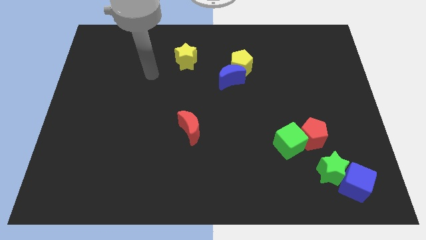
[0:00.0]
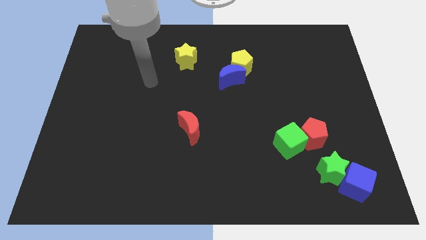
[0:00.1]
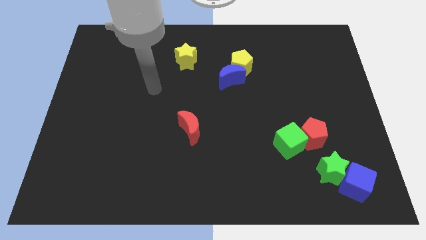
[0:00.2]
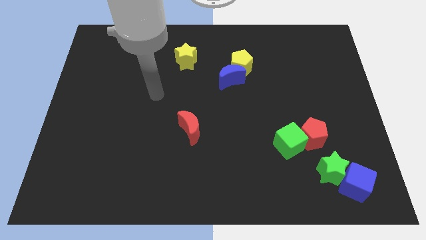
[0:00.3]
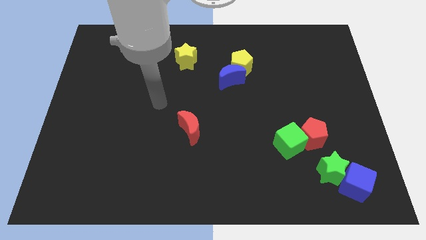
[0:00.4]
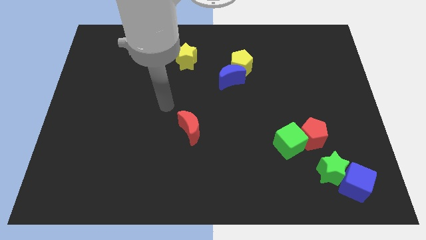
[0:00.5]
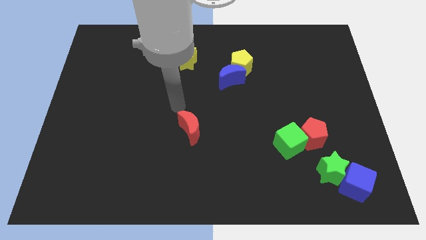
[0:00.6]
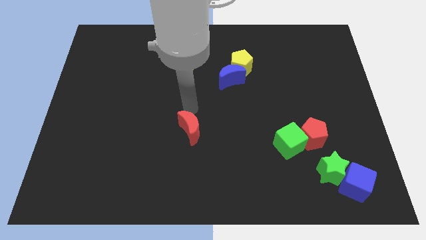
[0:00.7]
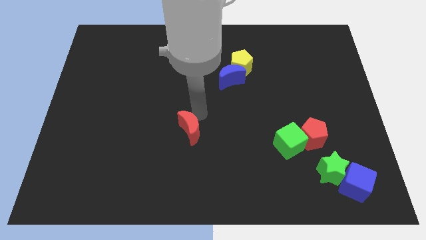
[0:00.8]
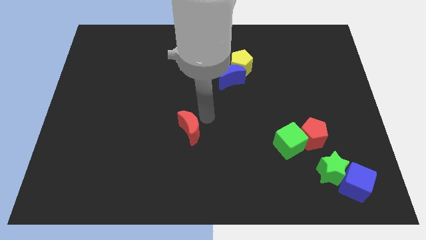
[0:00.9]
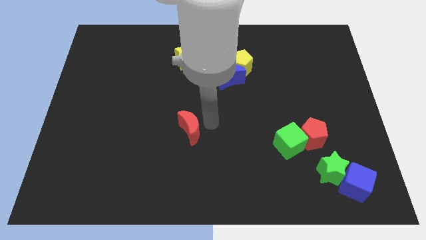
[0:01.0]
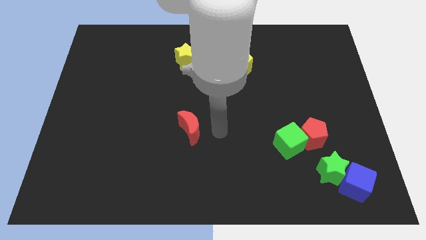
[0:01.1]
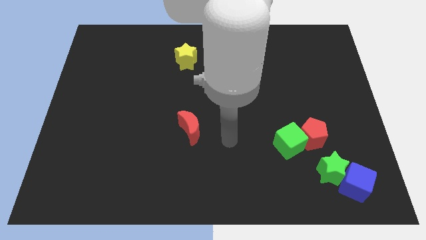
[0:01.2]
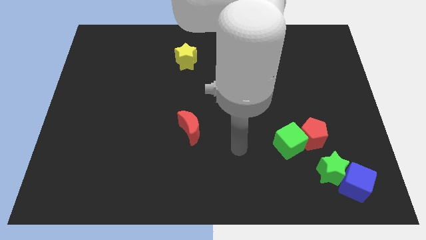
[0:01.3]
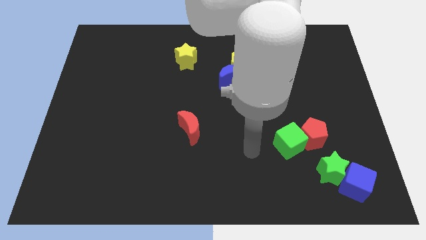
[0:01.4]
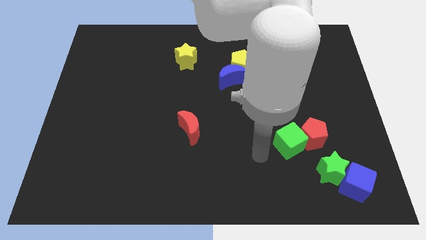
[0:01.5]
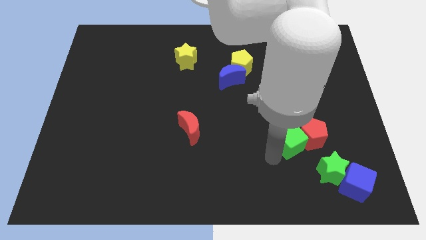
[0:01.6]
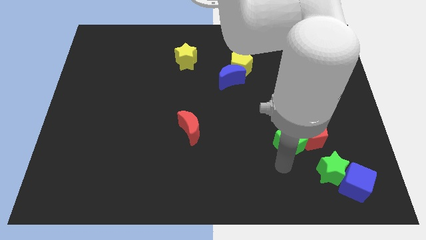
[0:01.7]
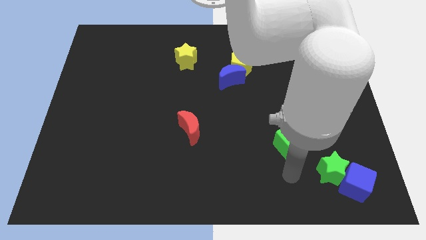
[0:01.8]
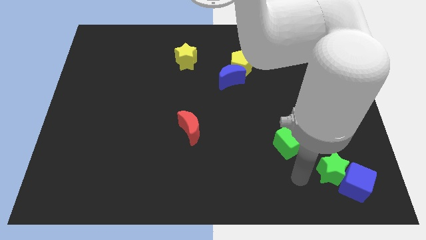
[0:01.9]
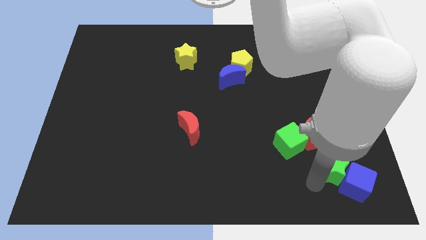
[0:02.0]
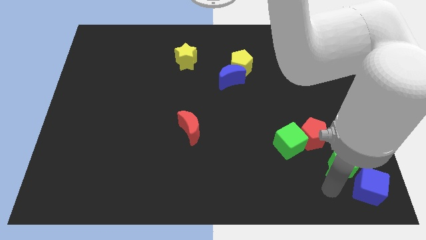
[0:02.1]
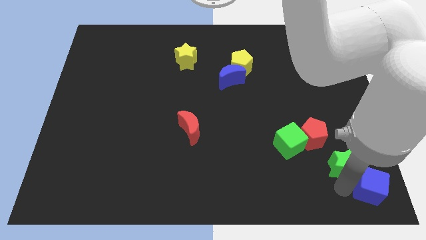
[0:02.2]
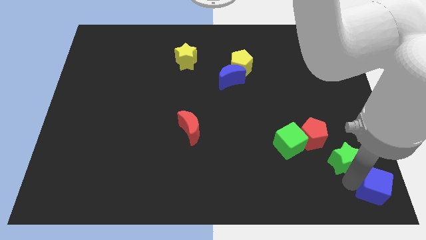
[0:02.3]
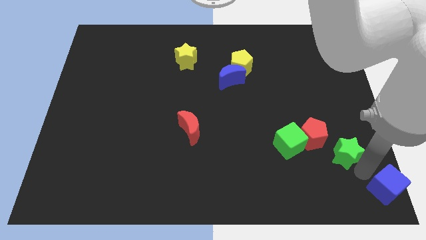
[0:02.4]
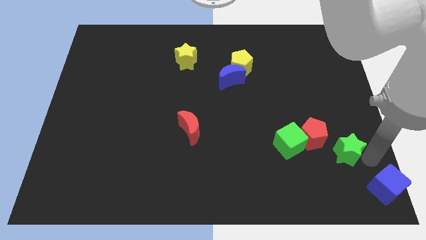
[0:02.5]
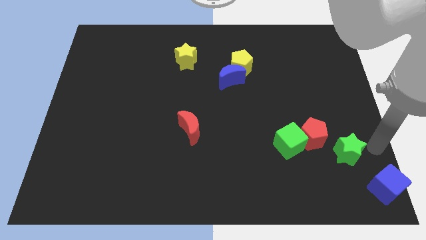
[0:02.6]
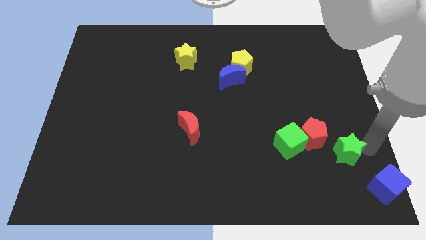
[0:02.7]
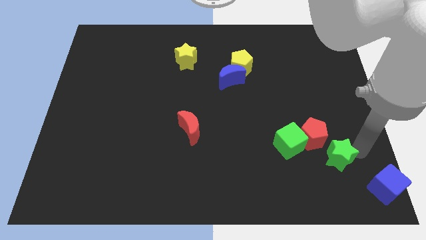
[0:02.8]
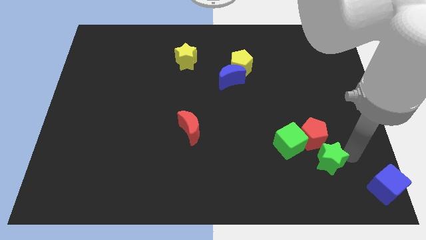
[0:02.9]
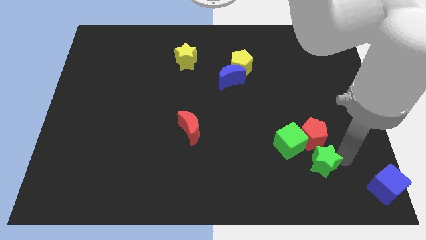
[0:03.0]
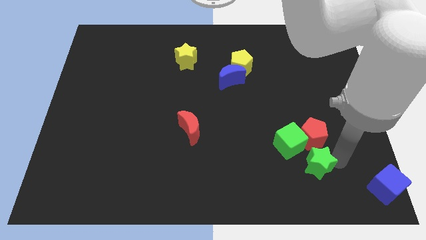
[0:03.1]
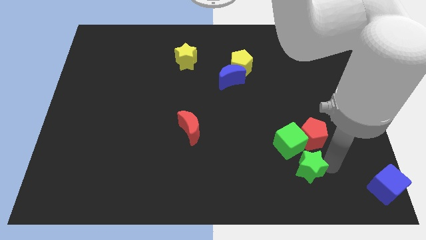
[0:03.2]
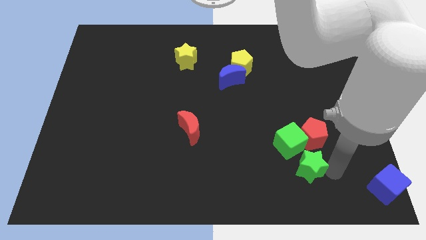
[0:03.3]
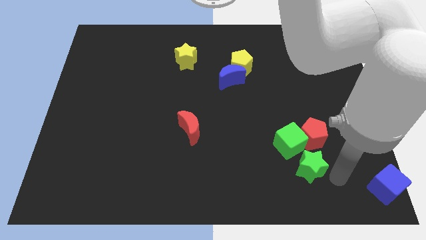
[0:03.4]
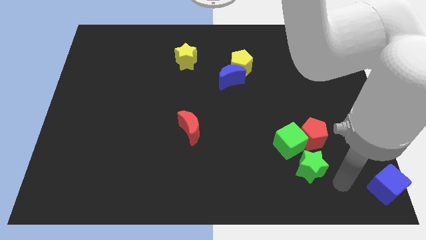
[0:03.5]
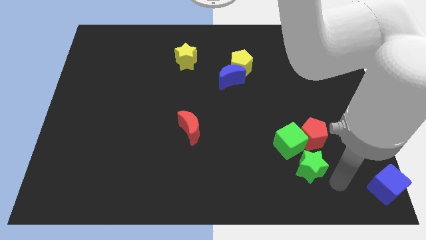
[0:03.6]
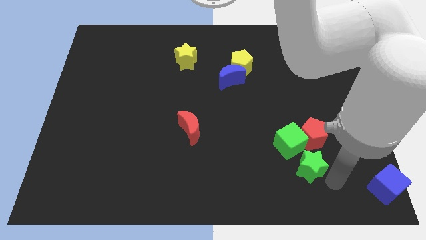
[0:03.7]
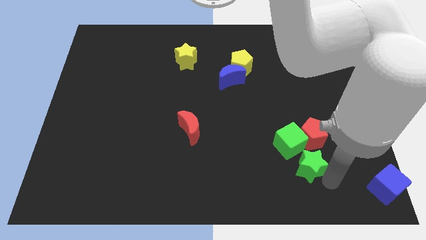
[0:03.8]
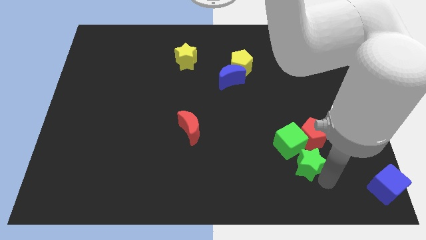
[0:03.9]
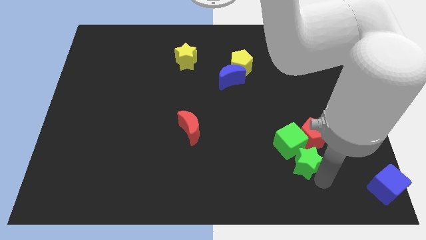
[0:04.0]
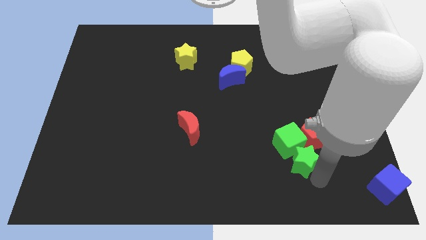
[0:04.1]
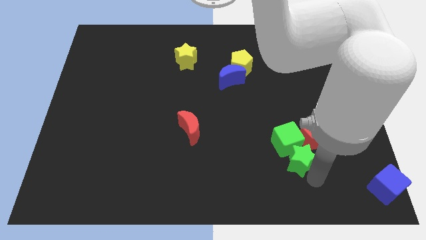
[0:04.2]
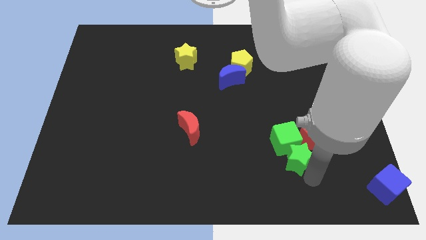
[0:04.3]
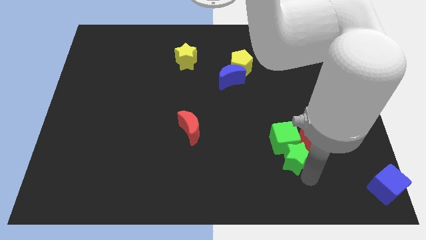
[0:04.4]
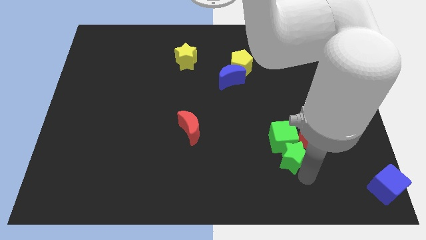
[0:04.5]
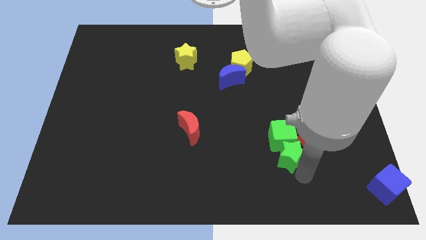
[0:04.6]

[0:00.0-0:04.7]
slide the green star somewhat diagonally up and to the left

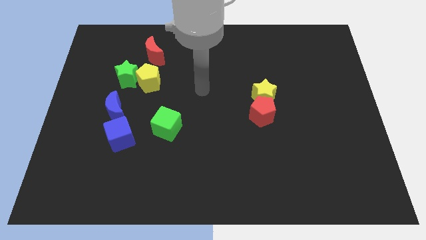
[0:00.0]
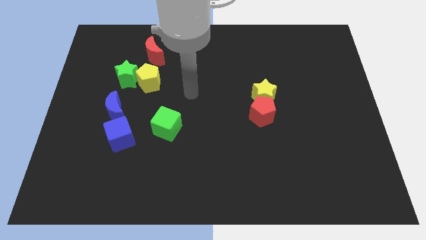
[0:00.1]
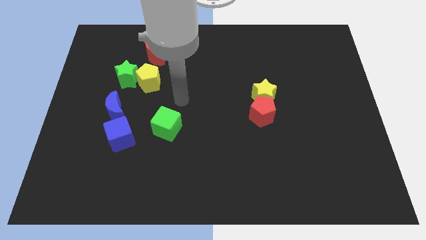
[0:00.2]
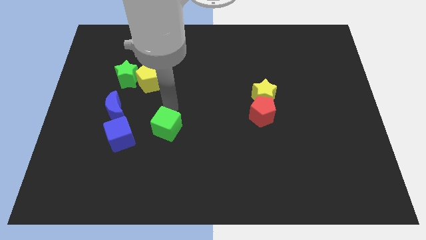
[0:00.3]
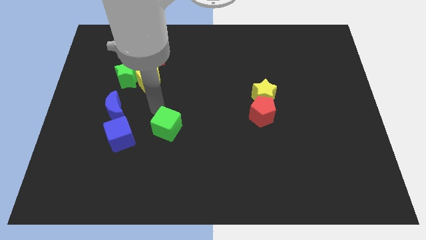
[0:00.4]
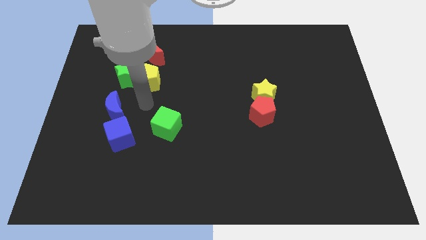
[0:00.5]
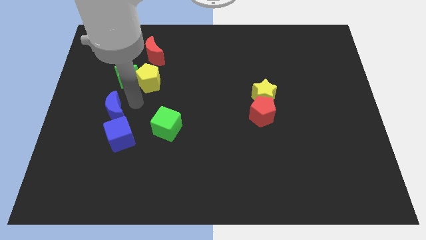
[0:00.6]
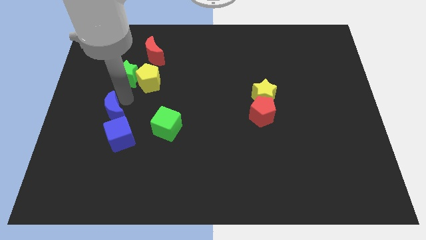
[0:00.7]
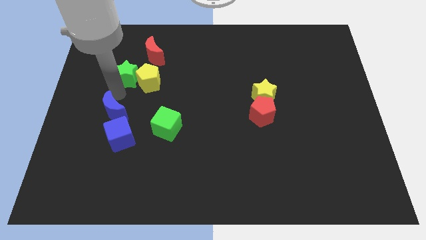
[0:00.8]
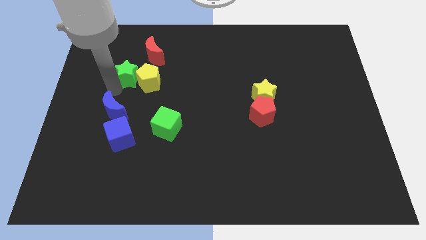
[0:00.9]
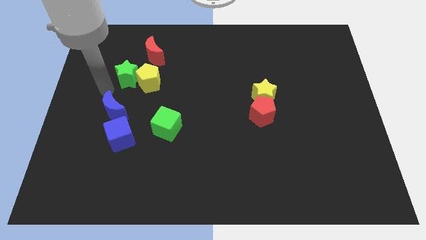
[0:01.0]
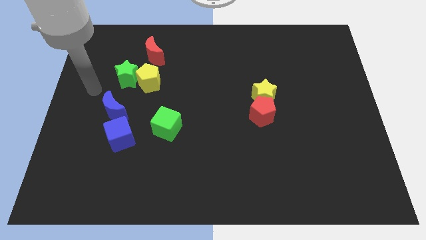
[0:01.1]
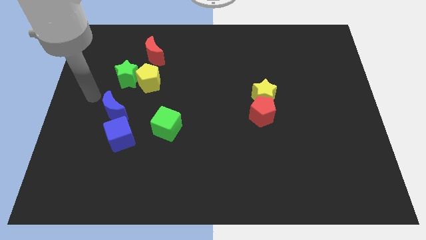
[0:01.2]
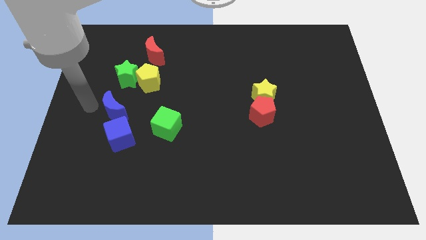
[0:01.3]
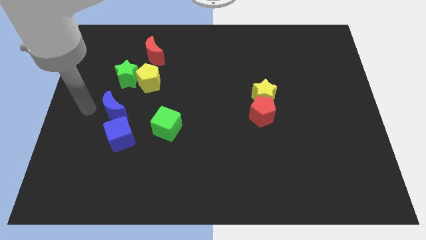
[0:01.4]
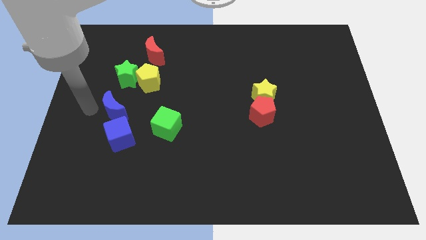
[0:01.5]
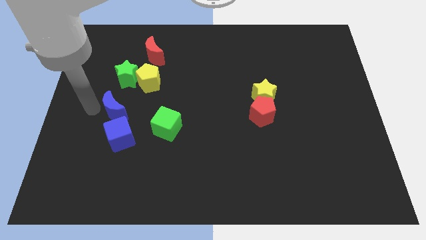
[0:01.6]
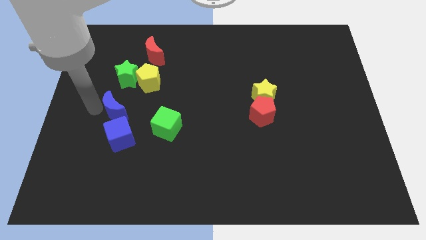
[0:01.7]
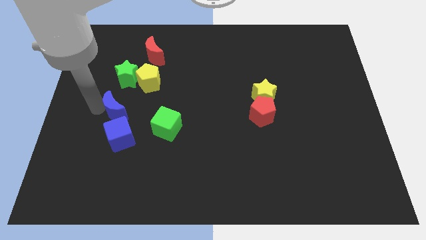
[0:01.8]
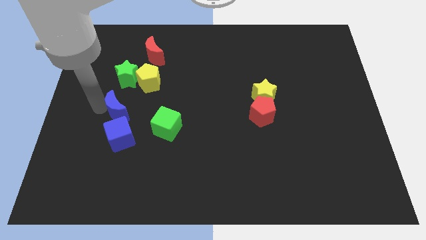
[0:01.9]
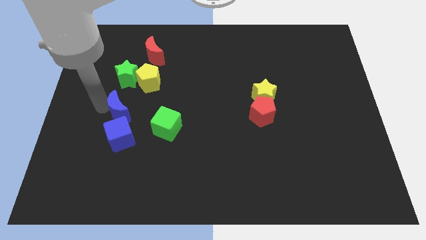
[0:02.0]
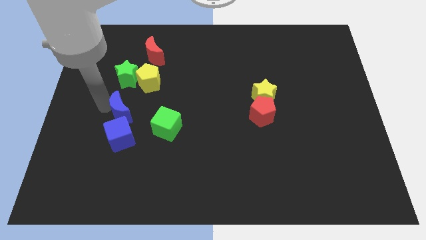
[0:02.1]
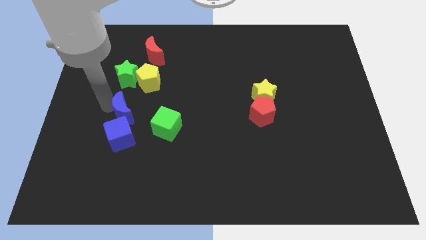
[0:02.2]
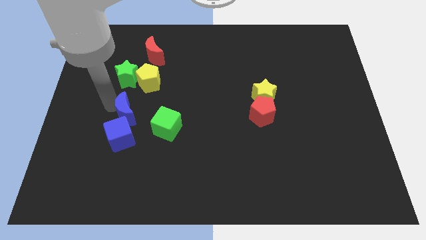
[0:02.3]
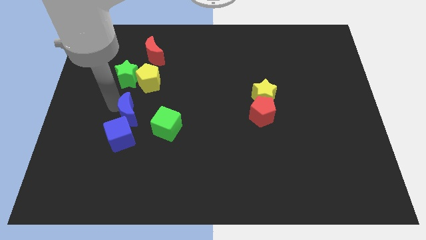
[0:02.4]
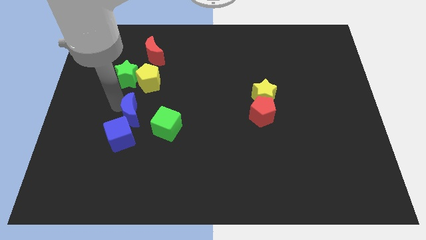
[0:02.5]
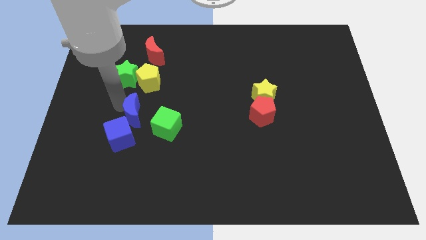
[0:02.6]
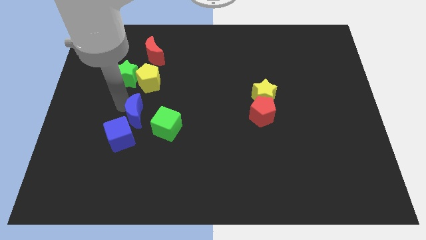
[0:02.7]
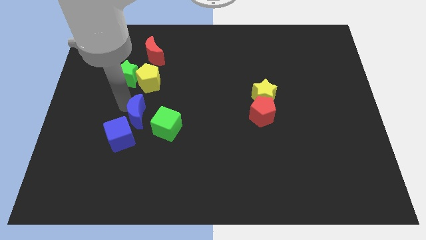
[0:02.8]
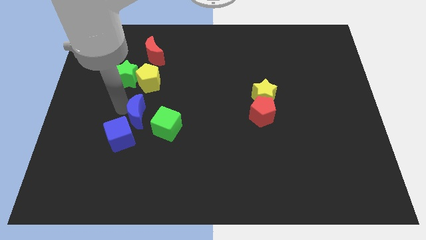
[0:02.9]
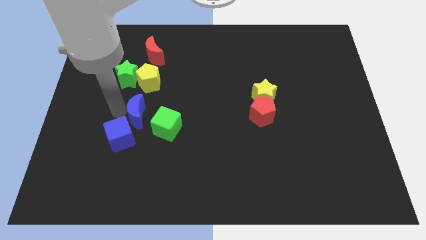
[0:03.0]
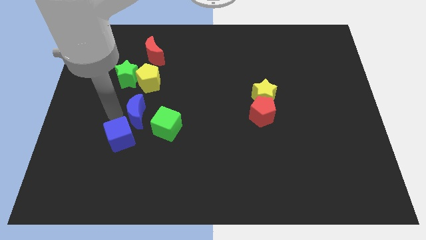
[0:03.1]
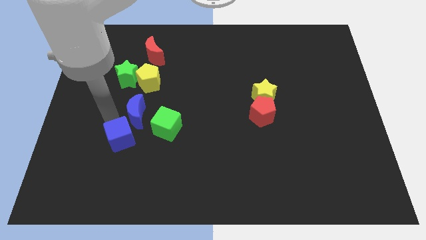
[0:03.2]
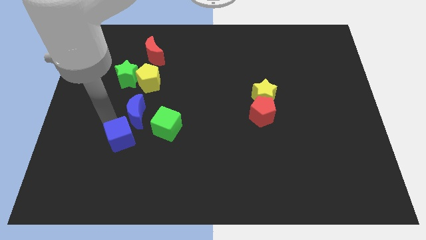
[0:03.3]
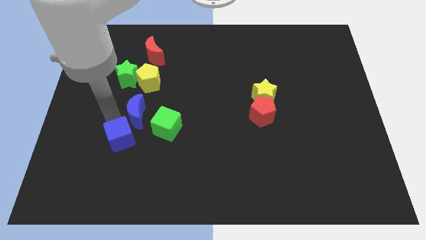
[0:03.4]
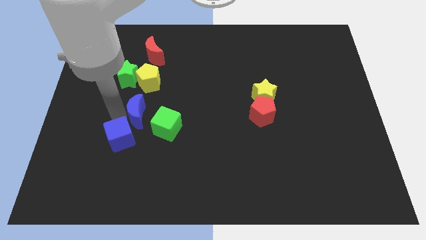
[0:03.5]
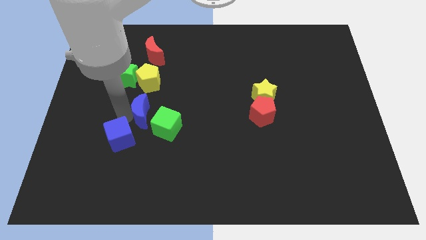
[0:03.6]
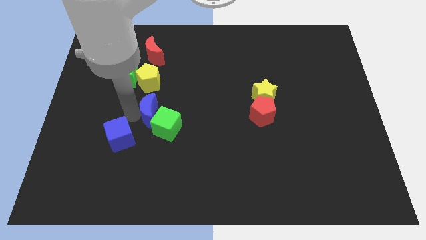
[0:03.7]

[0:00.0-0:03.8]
slightly move the blue moon right

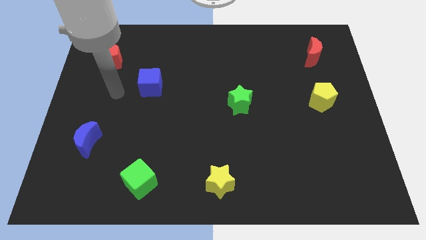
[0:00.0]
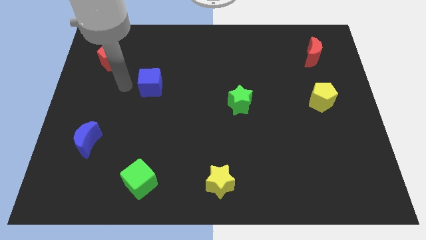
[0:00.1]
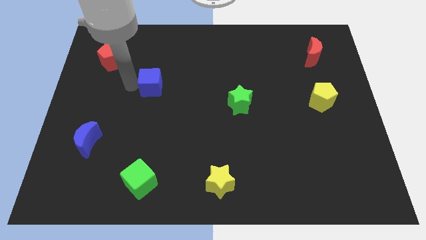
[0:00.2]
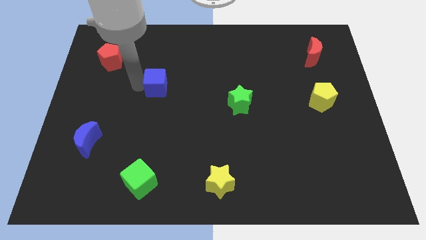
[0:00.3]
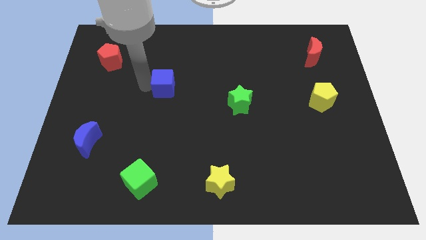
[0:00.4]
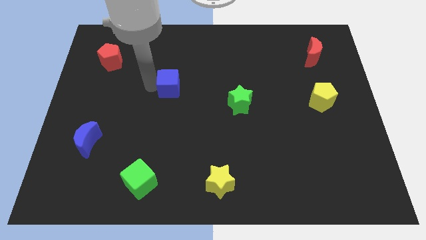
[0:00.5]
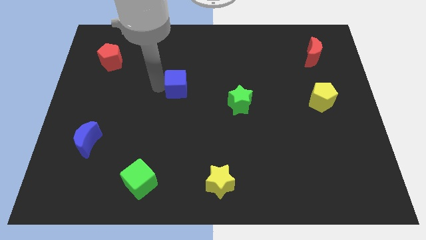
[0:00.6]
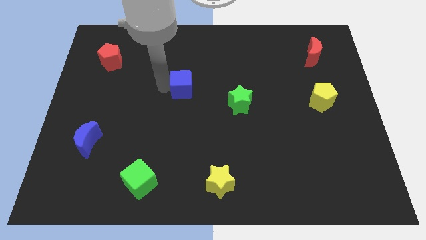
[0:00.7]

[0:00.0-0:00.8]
slide the blue cube a bit right
